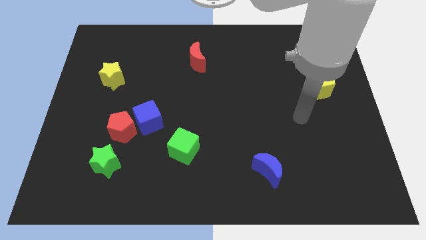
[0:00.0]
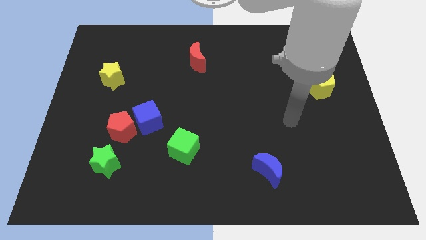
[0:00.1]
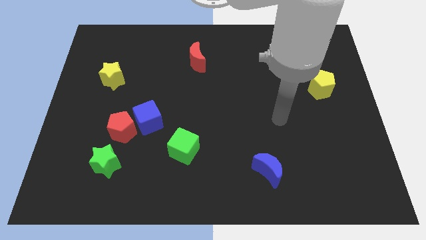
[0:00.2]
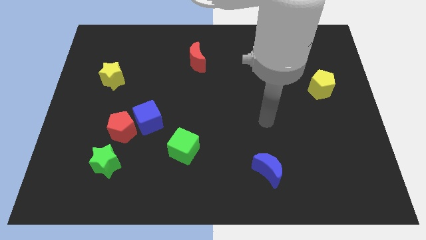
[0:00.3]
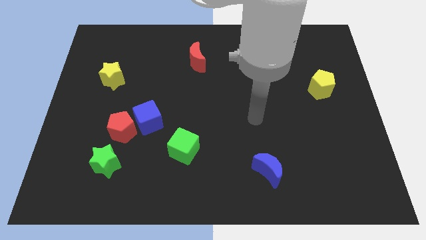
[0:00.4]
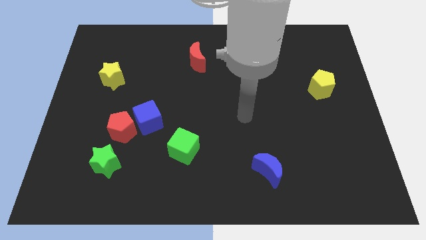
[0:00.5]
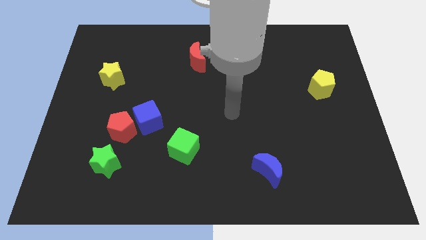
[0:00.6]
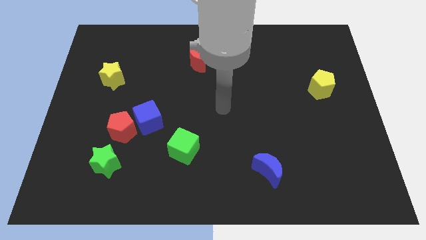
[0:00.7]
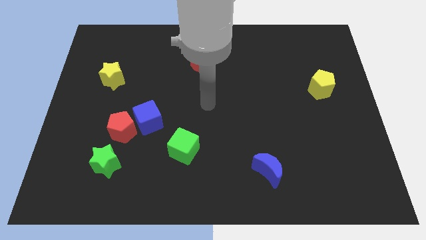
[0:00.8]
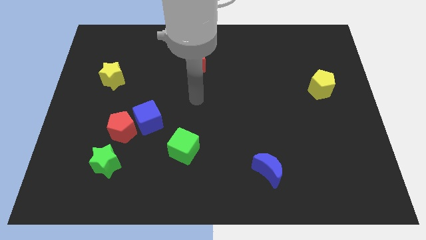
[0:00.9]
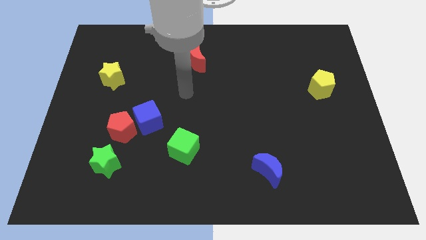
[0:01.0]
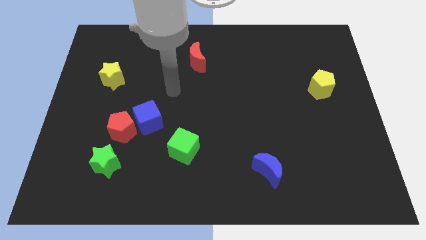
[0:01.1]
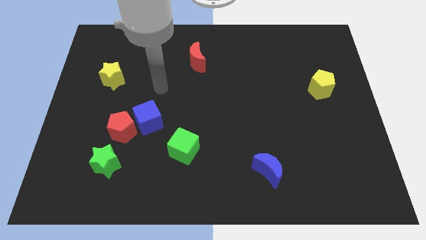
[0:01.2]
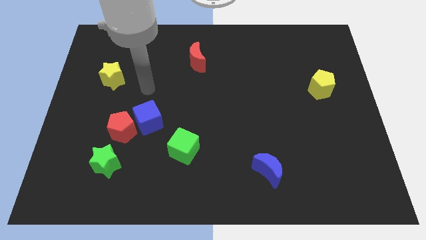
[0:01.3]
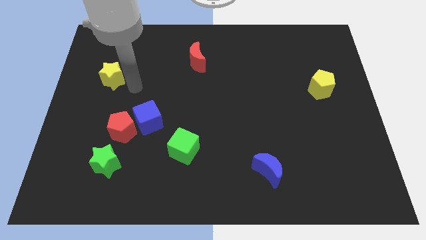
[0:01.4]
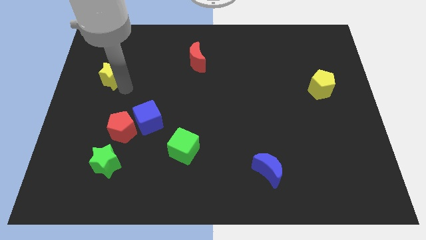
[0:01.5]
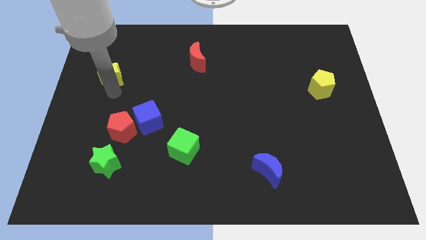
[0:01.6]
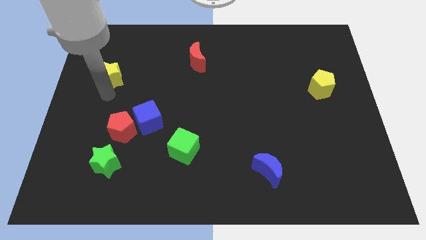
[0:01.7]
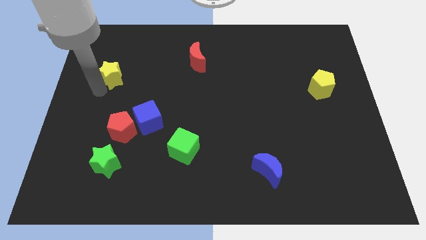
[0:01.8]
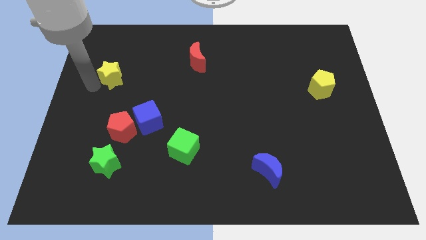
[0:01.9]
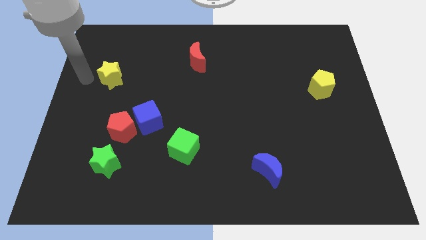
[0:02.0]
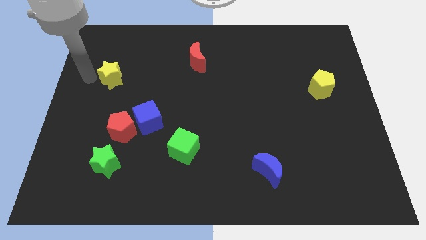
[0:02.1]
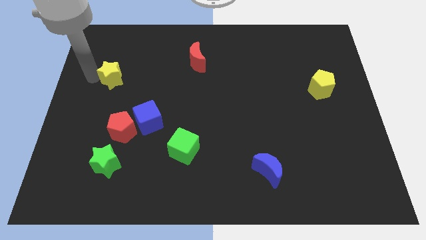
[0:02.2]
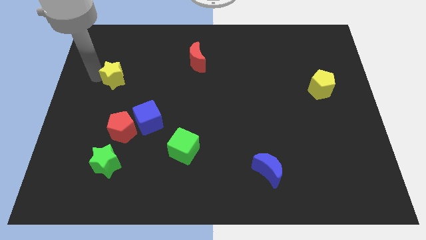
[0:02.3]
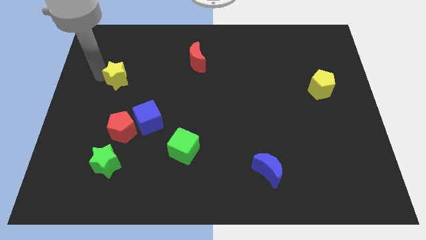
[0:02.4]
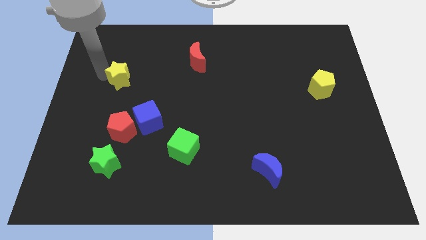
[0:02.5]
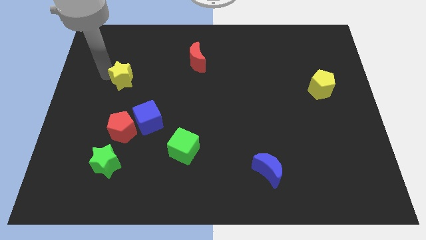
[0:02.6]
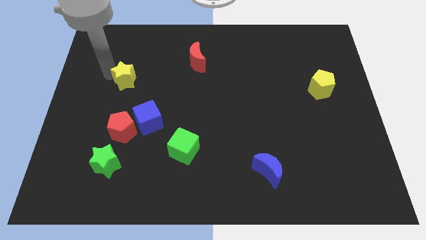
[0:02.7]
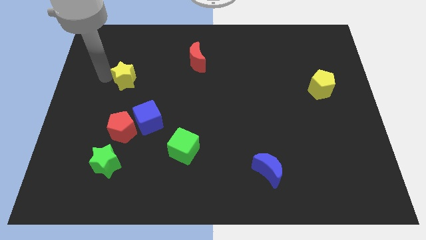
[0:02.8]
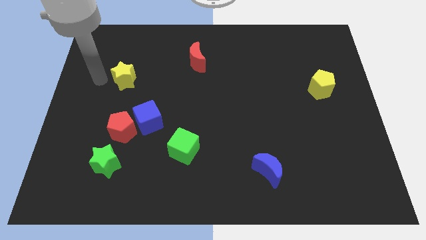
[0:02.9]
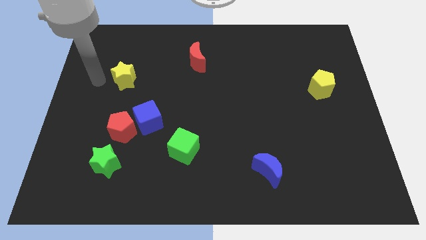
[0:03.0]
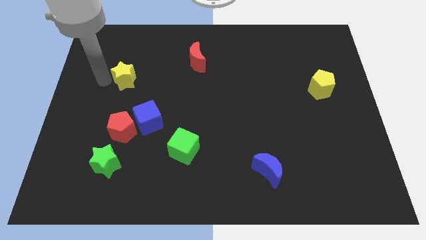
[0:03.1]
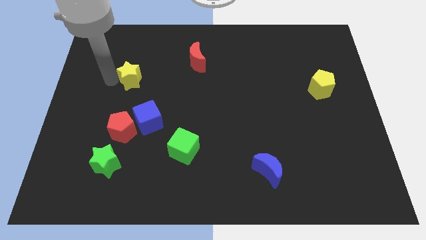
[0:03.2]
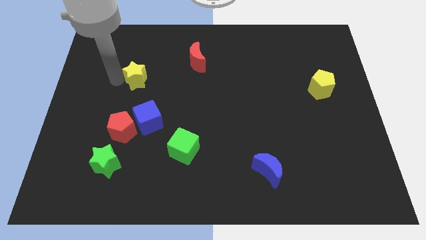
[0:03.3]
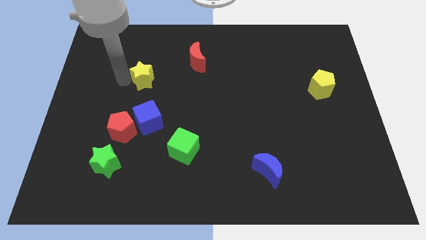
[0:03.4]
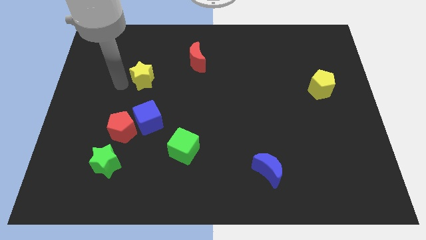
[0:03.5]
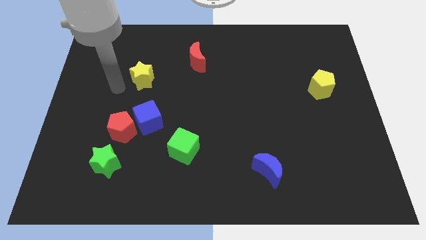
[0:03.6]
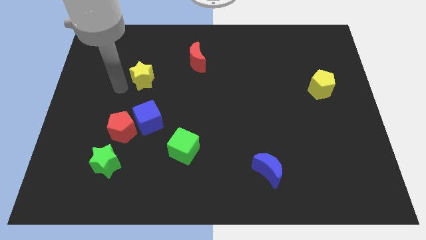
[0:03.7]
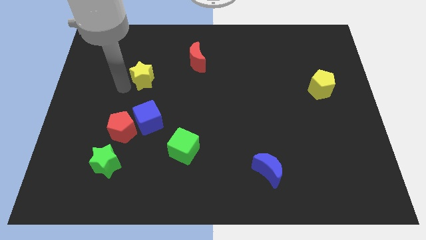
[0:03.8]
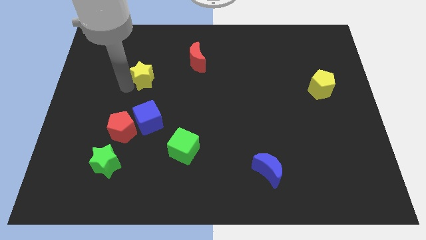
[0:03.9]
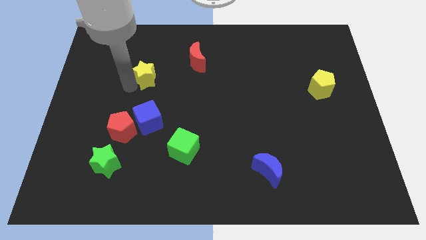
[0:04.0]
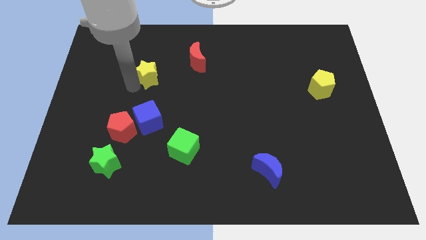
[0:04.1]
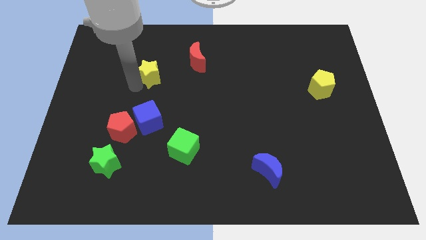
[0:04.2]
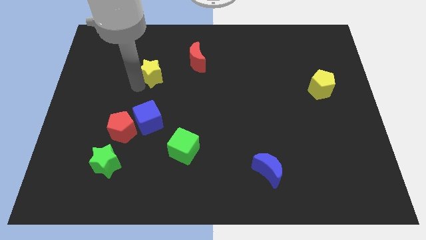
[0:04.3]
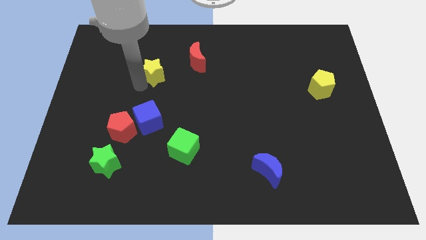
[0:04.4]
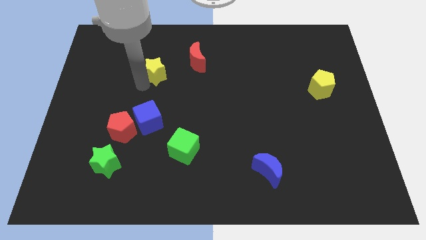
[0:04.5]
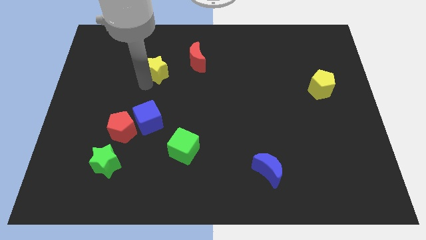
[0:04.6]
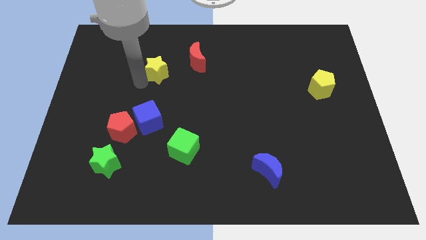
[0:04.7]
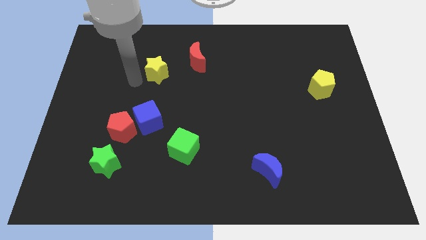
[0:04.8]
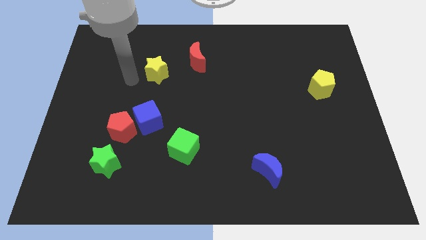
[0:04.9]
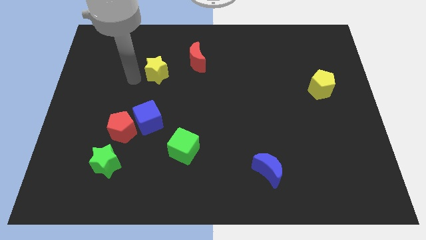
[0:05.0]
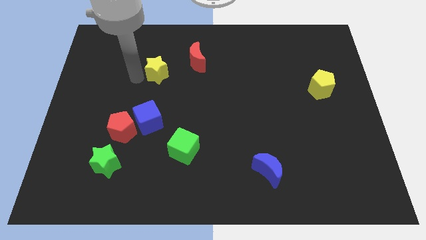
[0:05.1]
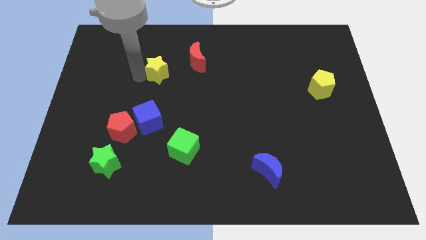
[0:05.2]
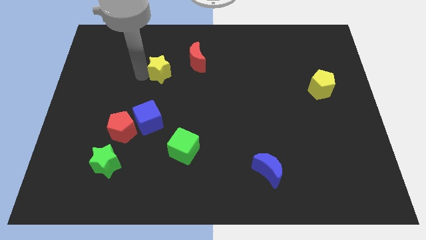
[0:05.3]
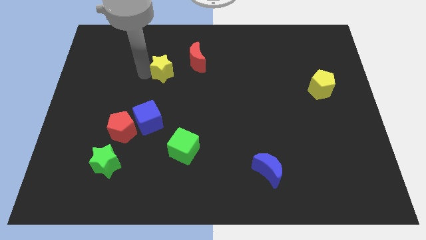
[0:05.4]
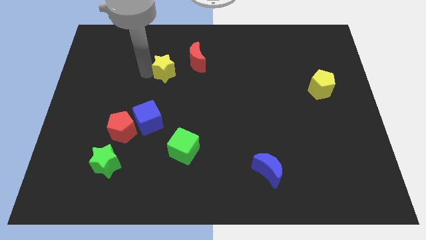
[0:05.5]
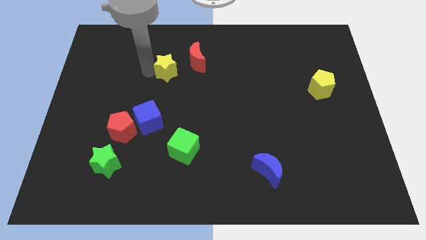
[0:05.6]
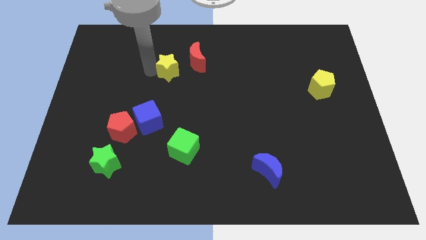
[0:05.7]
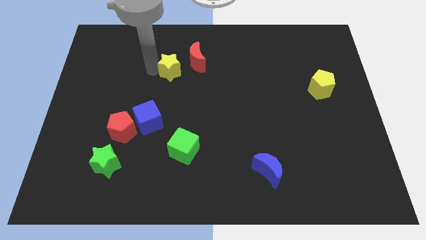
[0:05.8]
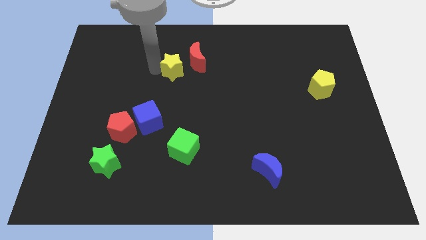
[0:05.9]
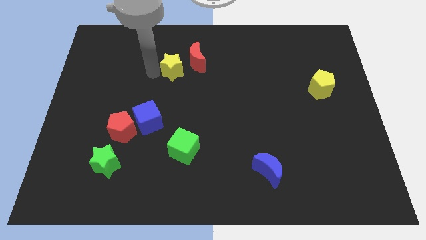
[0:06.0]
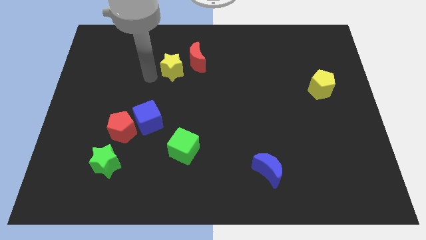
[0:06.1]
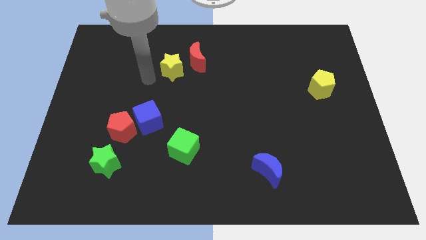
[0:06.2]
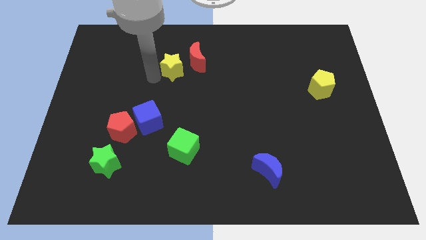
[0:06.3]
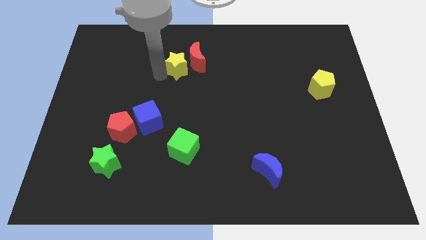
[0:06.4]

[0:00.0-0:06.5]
push the yellow star towards the red moon

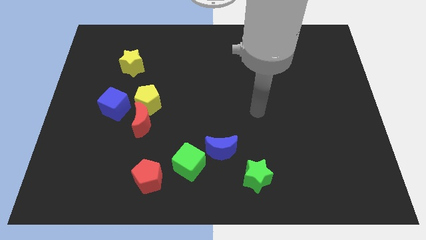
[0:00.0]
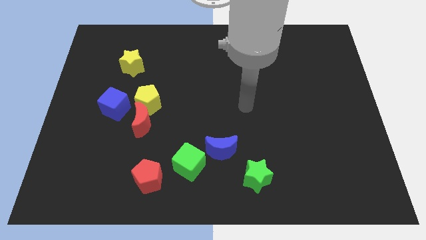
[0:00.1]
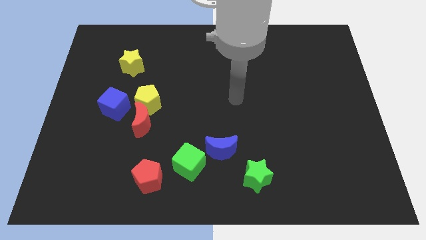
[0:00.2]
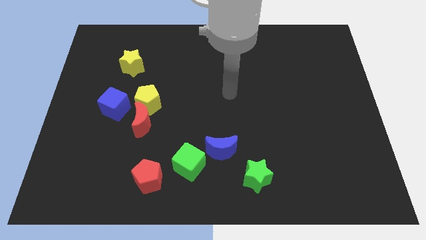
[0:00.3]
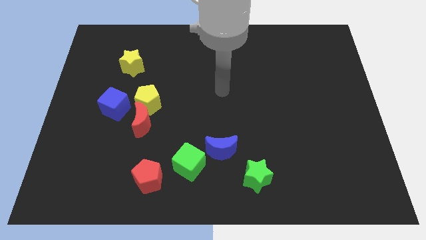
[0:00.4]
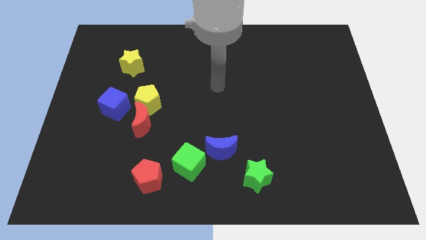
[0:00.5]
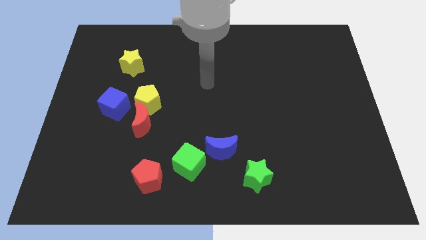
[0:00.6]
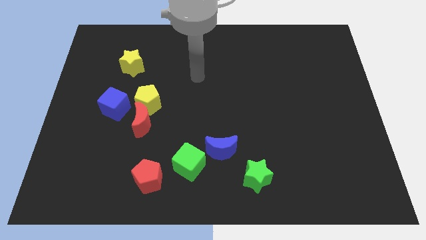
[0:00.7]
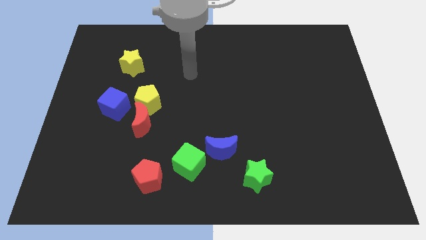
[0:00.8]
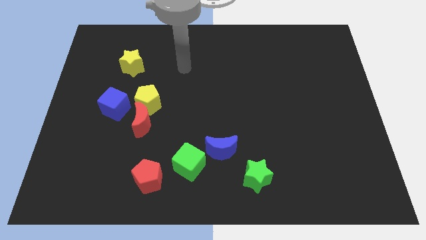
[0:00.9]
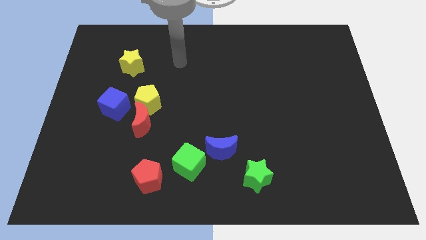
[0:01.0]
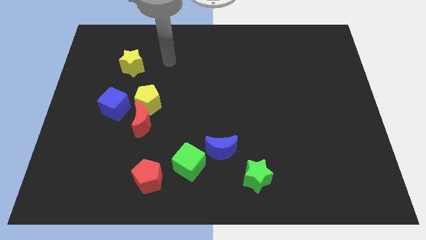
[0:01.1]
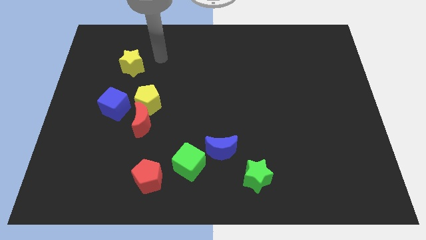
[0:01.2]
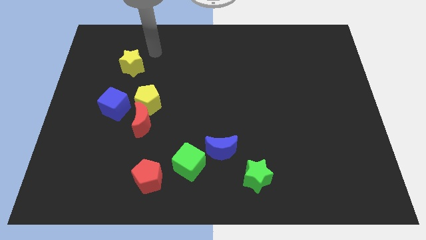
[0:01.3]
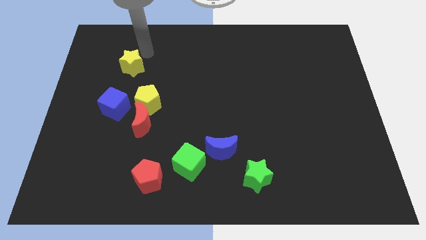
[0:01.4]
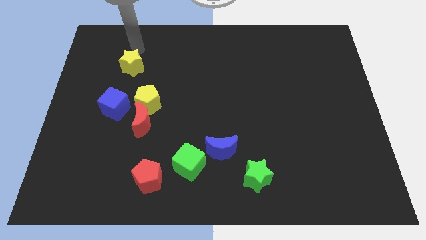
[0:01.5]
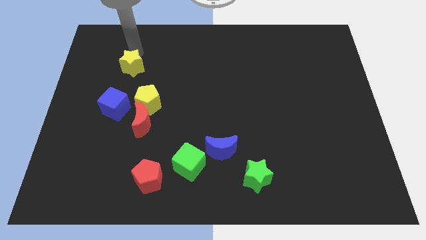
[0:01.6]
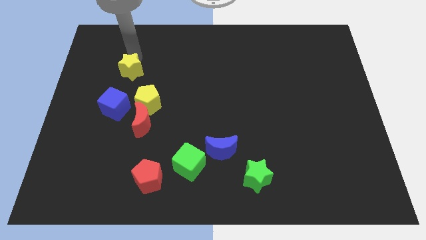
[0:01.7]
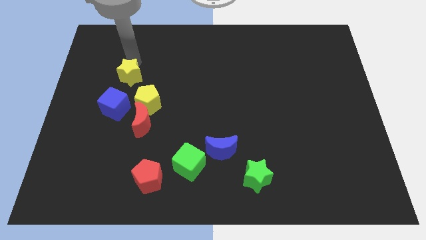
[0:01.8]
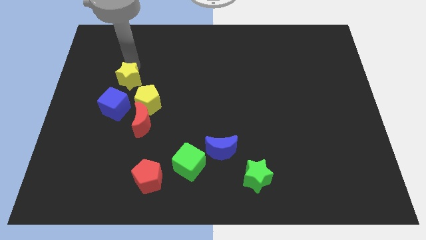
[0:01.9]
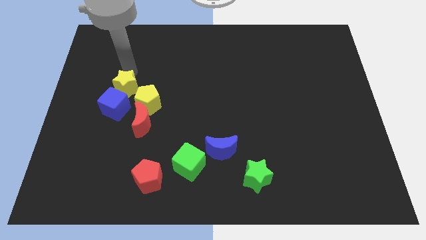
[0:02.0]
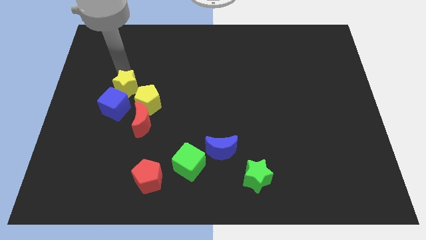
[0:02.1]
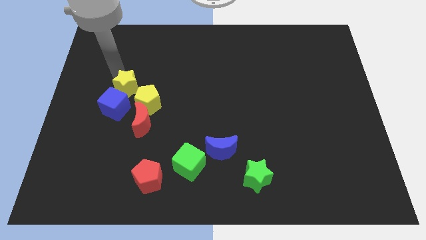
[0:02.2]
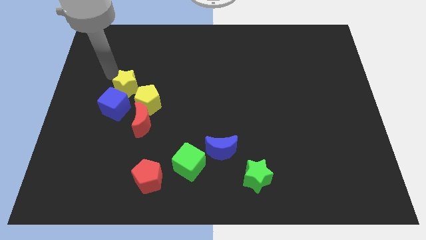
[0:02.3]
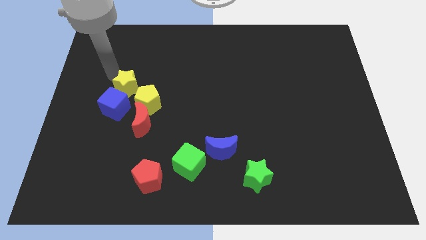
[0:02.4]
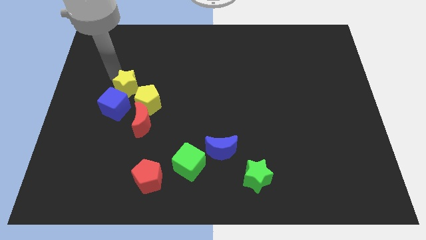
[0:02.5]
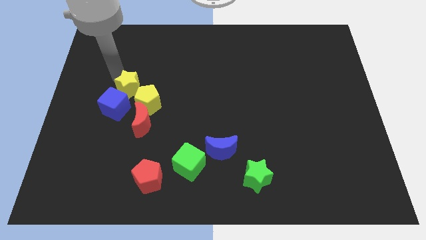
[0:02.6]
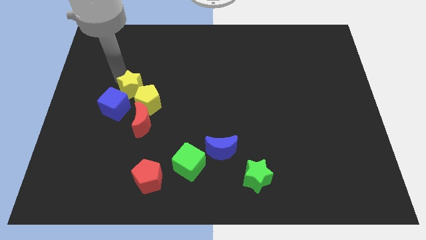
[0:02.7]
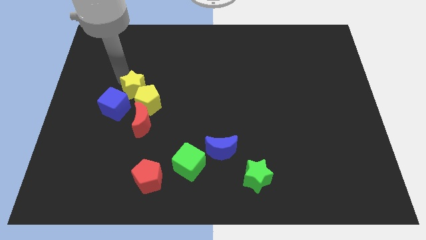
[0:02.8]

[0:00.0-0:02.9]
push the yellow star towards the yellow pentagon
